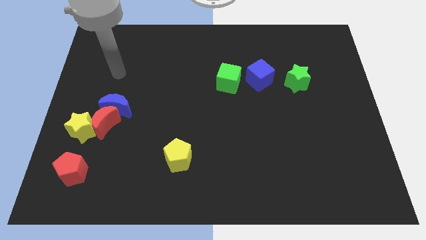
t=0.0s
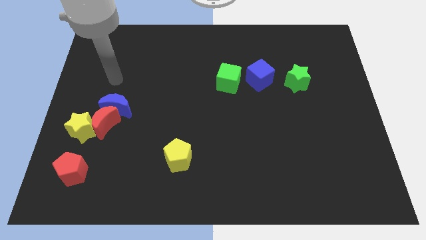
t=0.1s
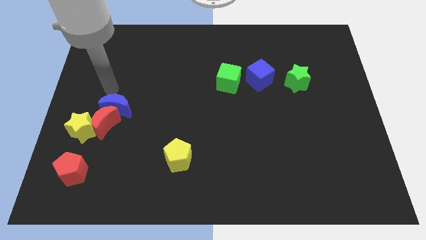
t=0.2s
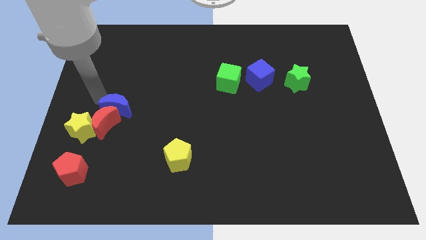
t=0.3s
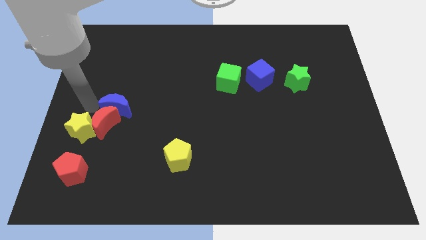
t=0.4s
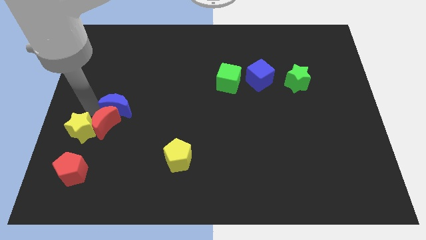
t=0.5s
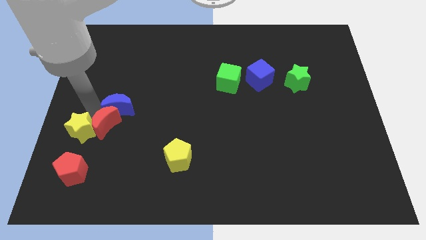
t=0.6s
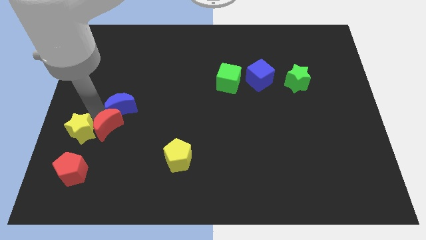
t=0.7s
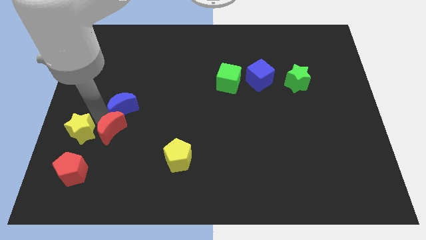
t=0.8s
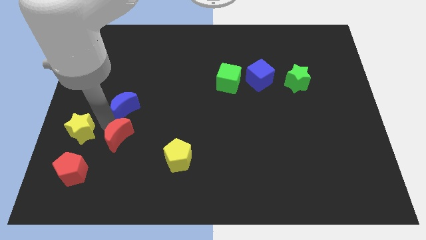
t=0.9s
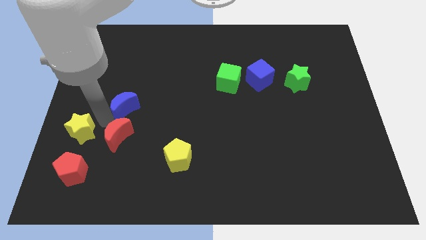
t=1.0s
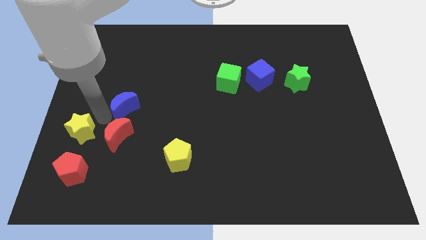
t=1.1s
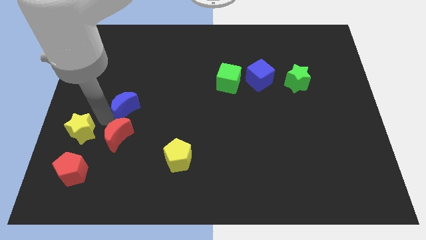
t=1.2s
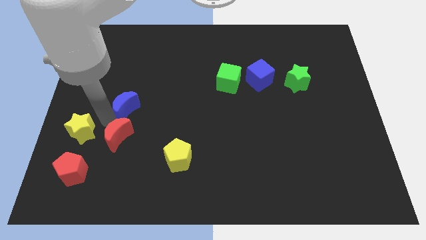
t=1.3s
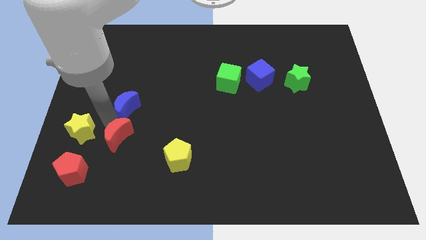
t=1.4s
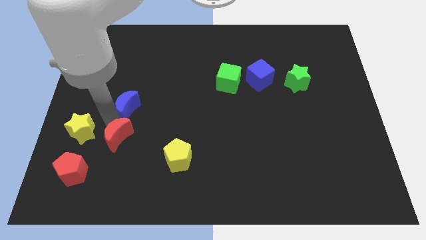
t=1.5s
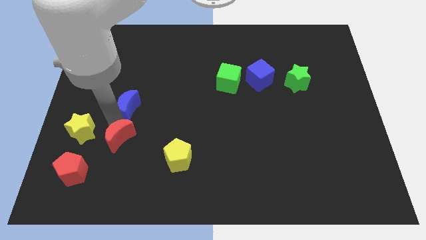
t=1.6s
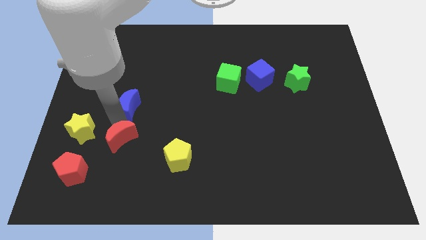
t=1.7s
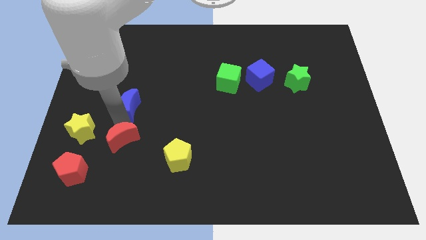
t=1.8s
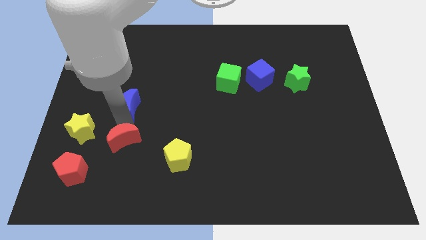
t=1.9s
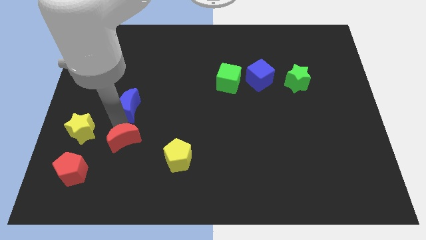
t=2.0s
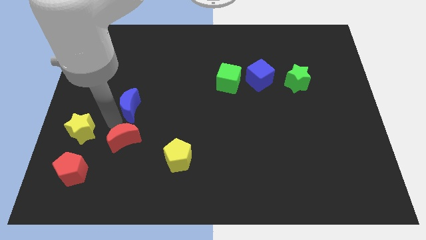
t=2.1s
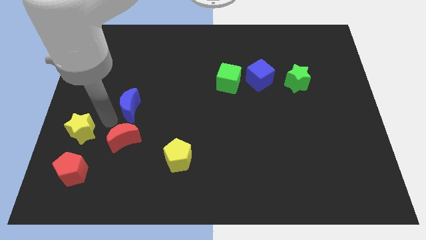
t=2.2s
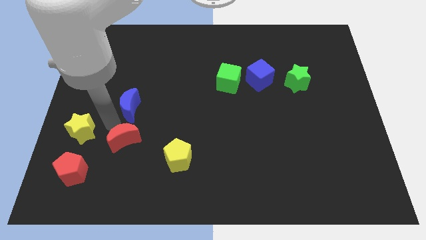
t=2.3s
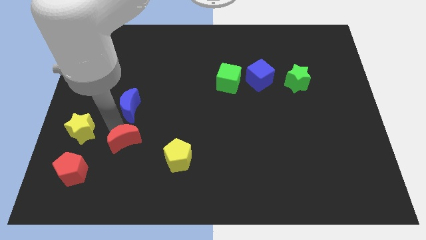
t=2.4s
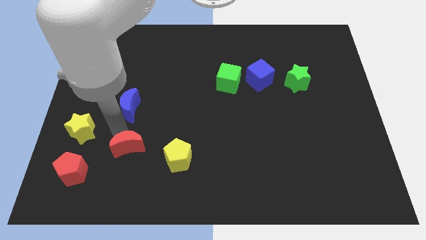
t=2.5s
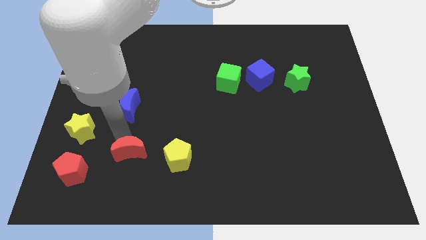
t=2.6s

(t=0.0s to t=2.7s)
move the red moon away from the blue moon and yellow star

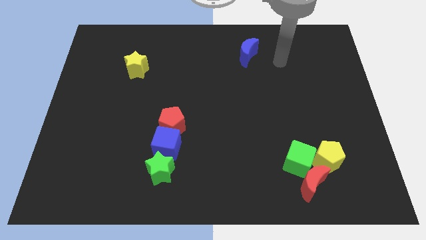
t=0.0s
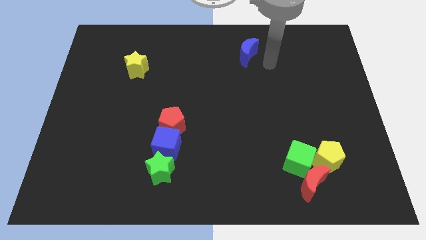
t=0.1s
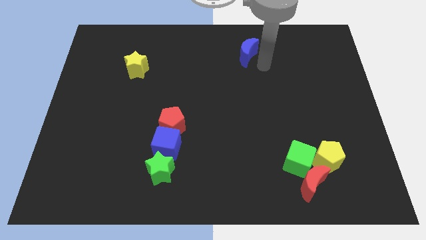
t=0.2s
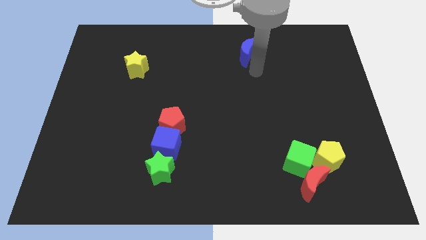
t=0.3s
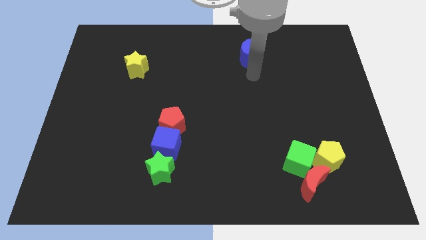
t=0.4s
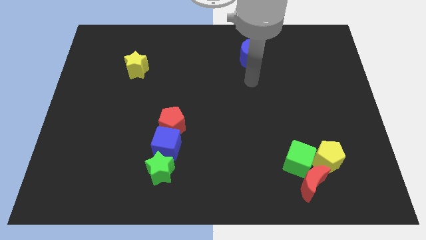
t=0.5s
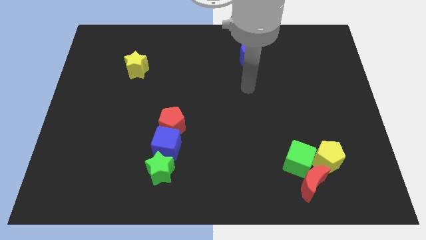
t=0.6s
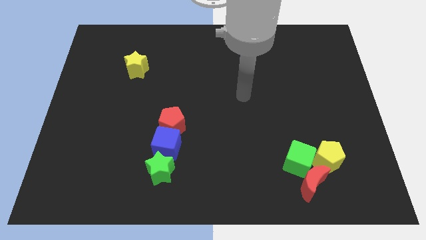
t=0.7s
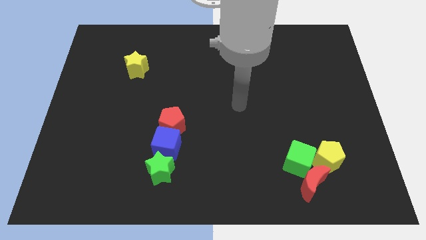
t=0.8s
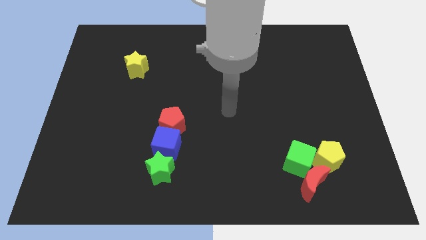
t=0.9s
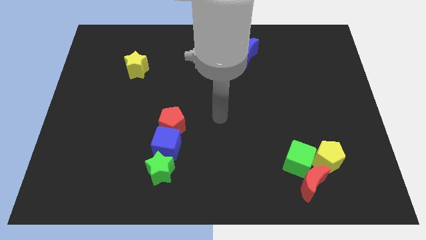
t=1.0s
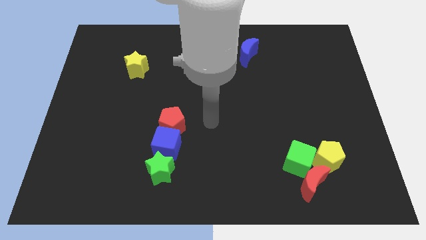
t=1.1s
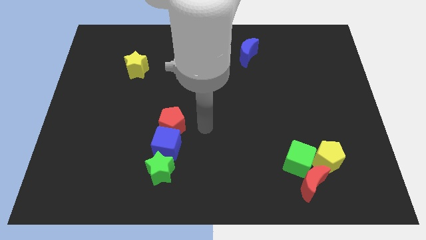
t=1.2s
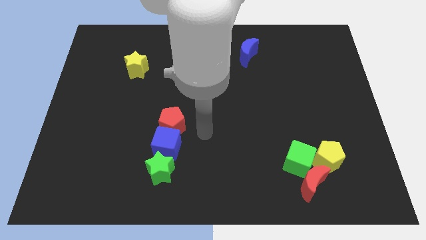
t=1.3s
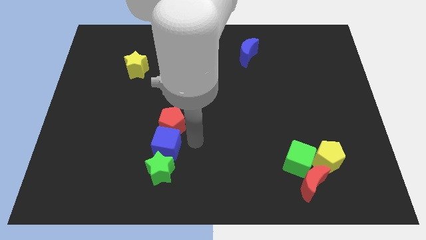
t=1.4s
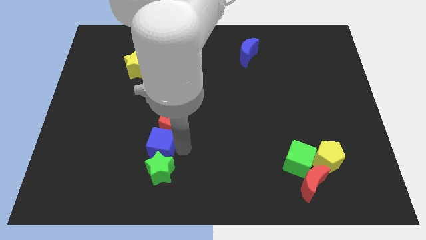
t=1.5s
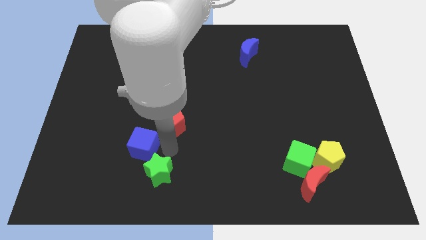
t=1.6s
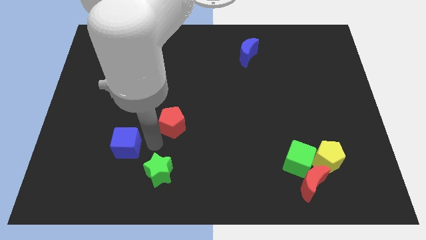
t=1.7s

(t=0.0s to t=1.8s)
separate the red pentagon from the blue cube

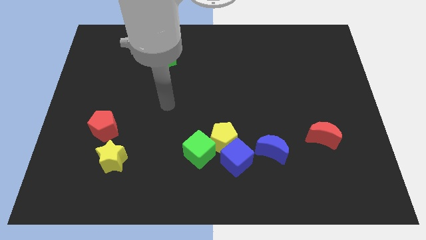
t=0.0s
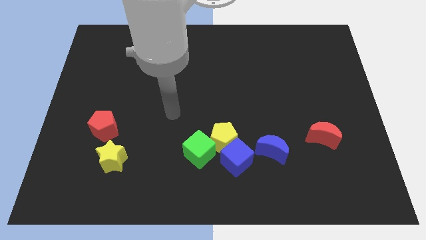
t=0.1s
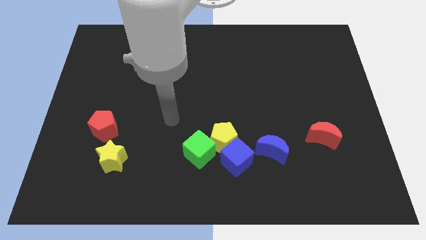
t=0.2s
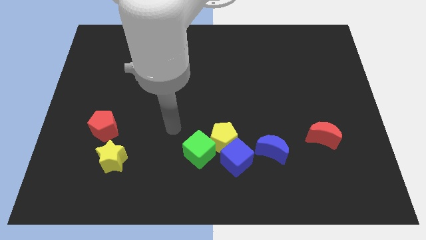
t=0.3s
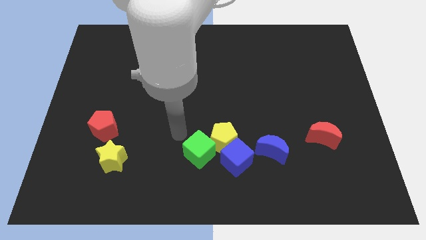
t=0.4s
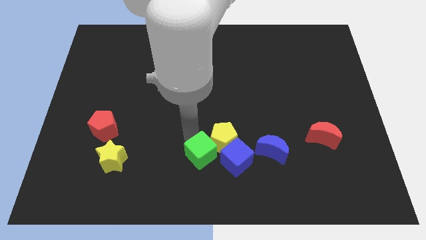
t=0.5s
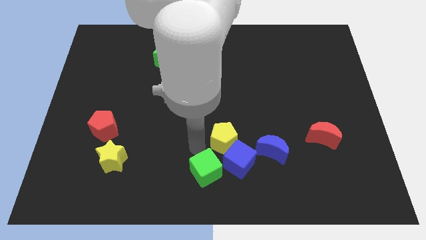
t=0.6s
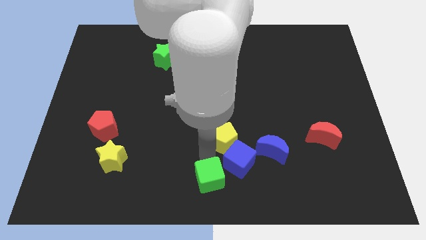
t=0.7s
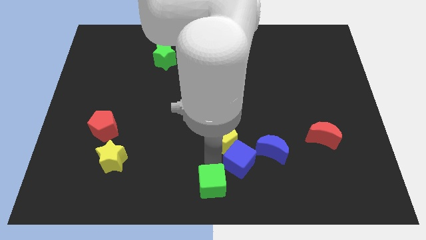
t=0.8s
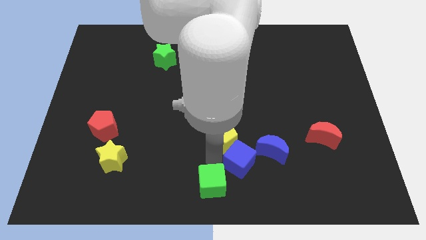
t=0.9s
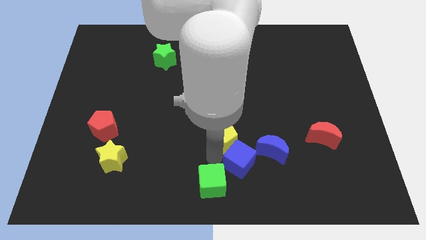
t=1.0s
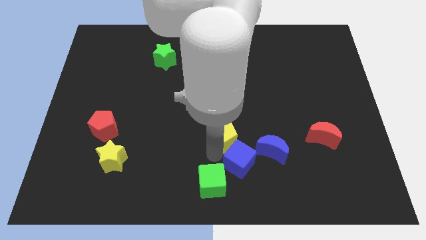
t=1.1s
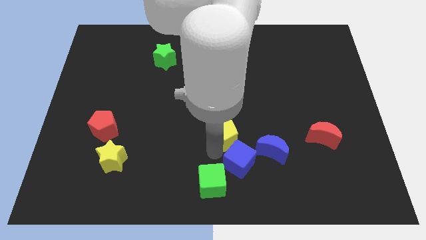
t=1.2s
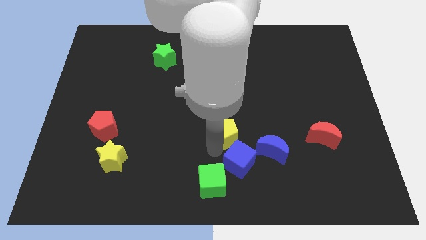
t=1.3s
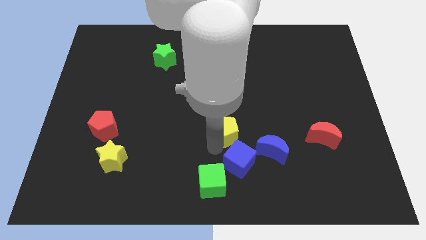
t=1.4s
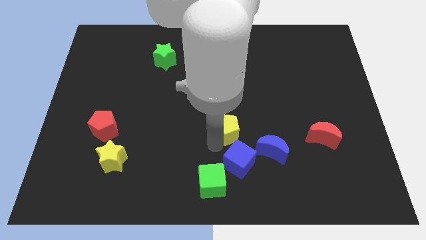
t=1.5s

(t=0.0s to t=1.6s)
pull the yellow pentagon apart from the blue cube and green cube

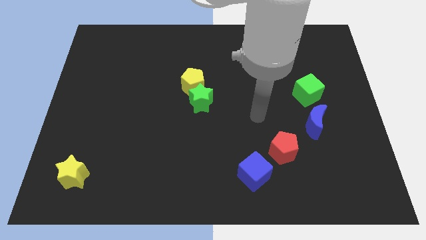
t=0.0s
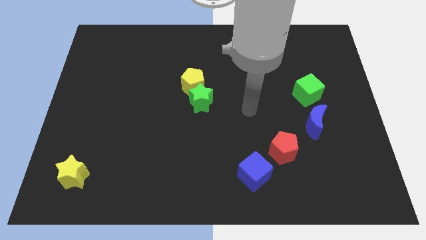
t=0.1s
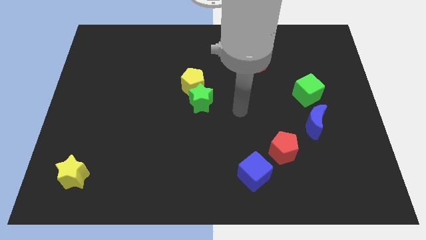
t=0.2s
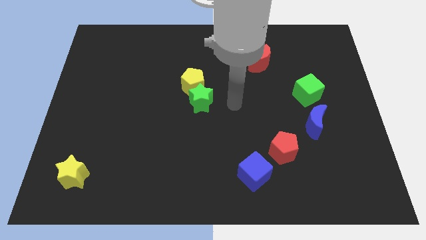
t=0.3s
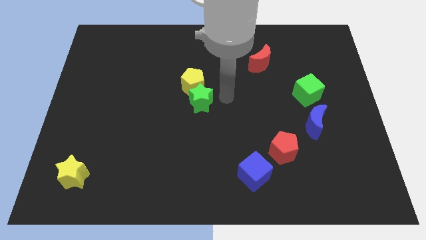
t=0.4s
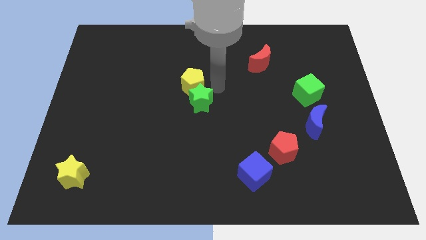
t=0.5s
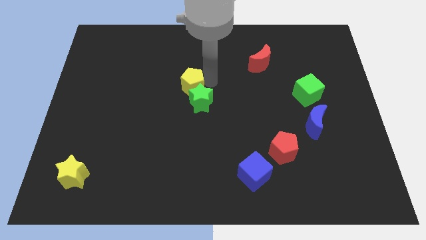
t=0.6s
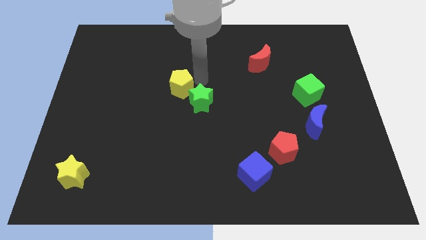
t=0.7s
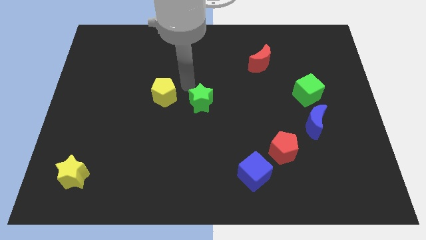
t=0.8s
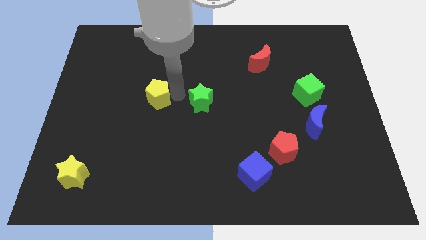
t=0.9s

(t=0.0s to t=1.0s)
move the green star away from the yellow pentagon

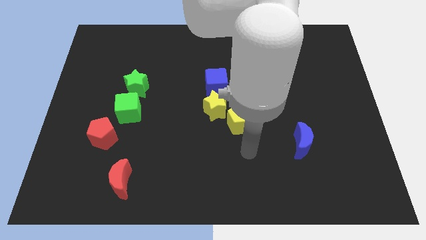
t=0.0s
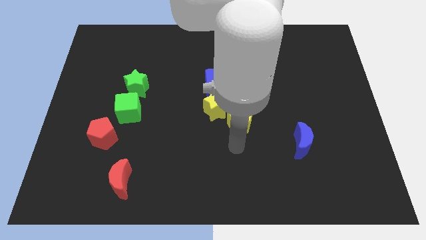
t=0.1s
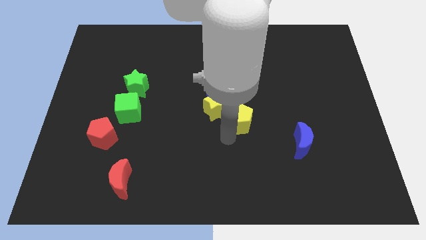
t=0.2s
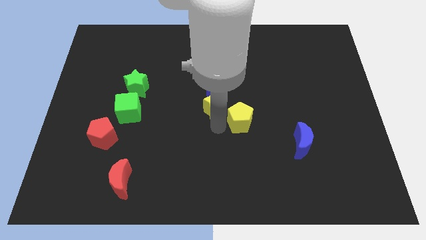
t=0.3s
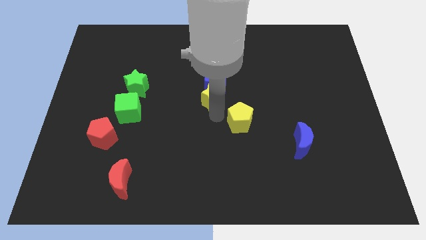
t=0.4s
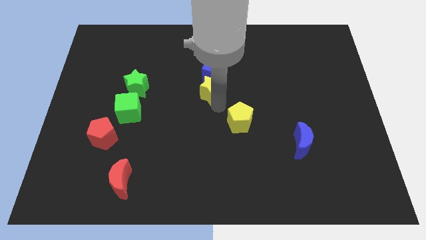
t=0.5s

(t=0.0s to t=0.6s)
pull the yellow pentagon apart from the yellow star

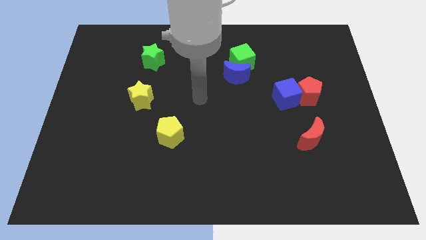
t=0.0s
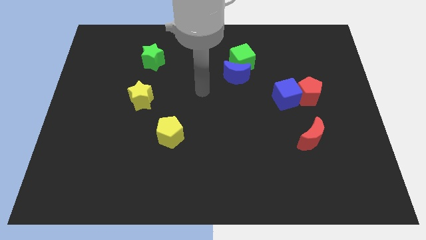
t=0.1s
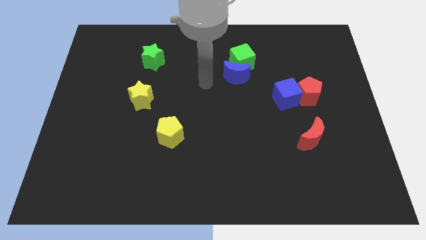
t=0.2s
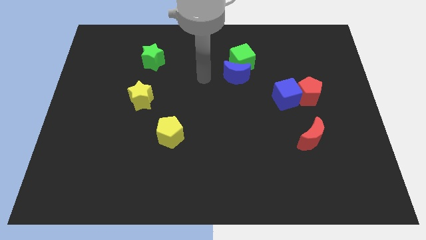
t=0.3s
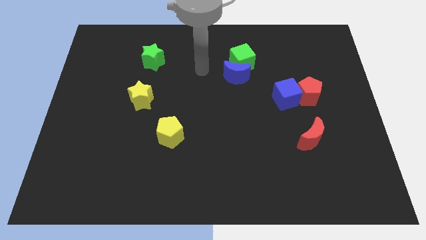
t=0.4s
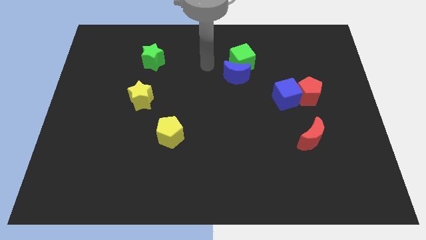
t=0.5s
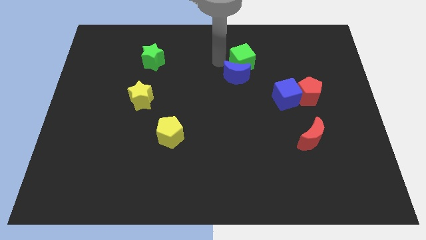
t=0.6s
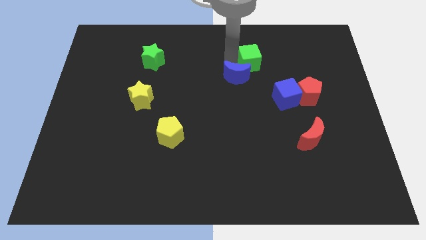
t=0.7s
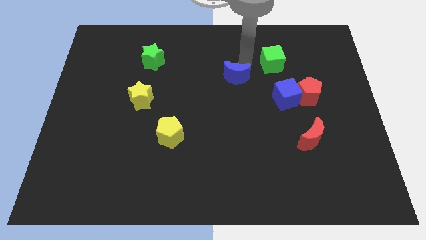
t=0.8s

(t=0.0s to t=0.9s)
separate the blue moon from the green cube

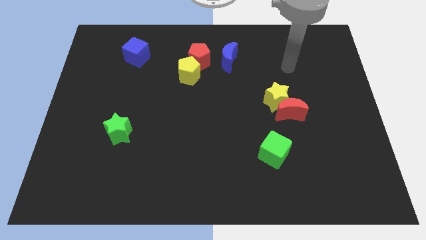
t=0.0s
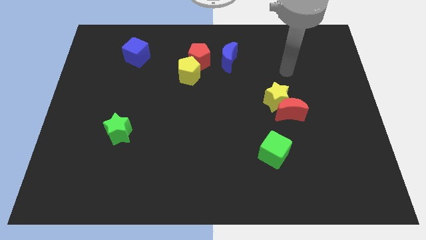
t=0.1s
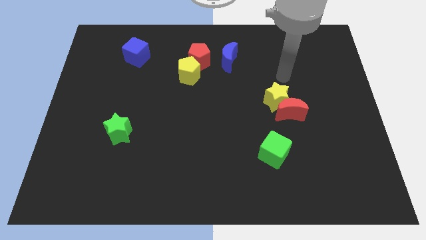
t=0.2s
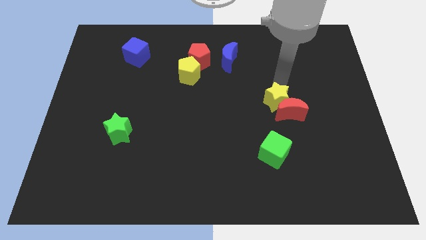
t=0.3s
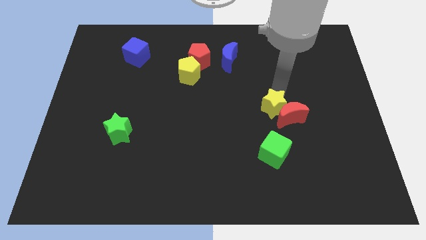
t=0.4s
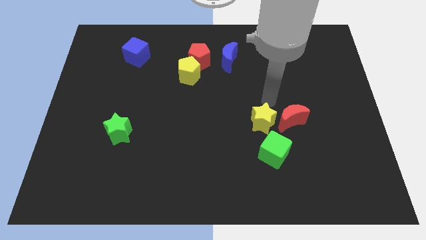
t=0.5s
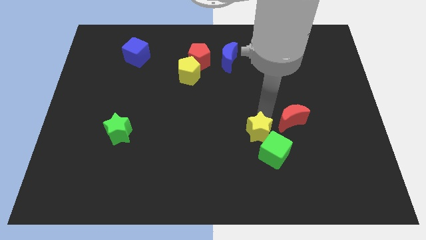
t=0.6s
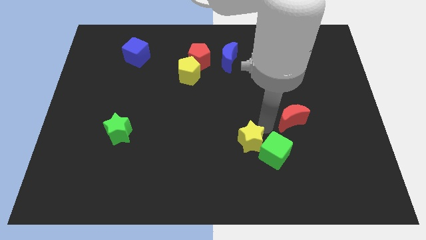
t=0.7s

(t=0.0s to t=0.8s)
move the red moon away from the yellow star
